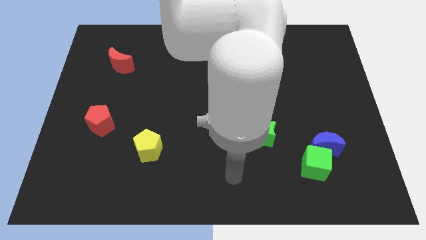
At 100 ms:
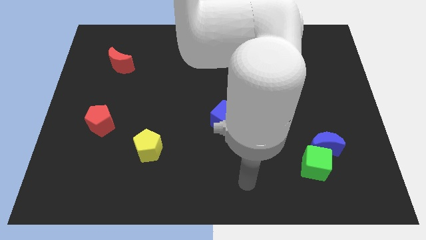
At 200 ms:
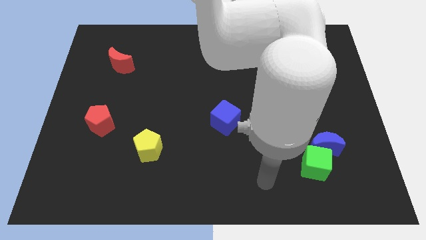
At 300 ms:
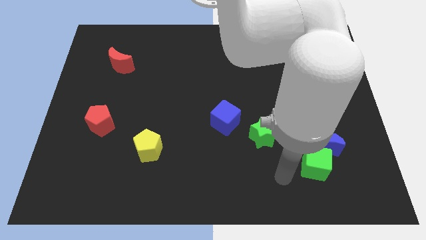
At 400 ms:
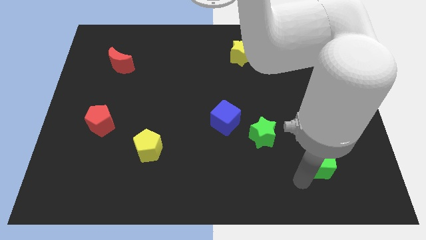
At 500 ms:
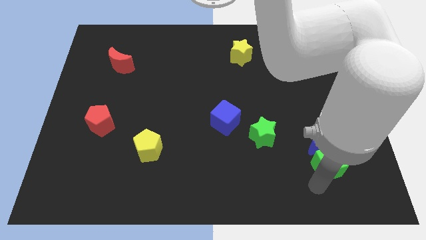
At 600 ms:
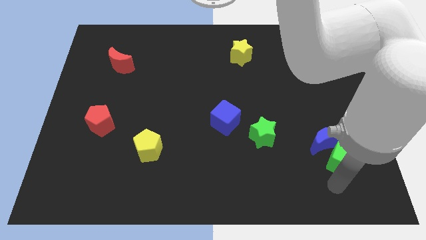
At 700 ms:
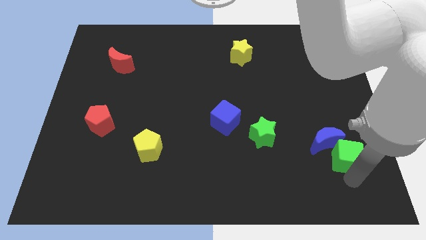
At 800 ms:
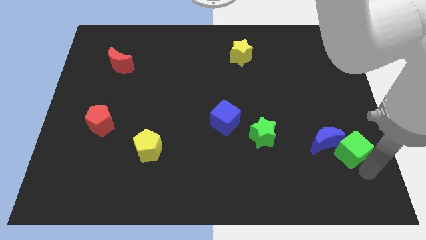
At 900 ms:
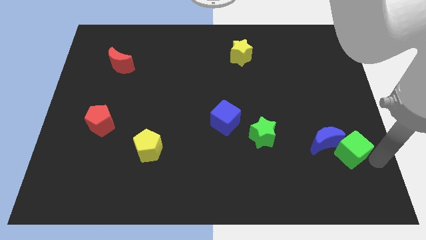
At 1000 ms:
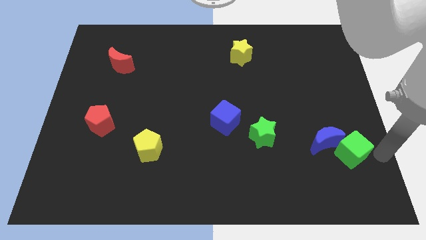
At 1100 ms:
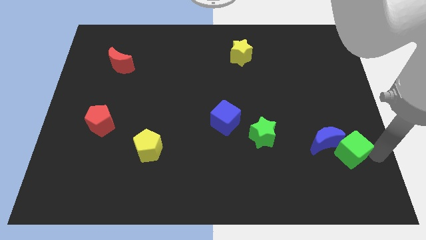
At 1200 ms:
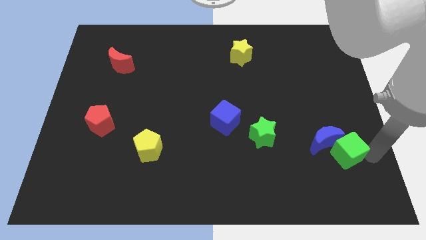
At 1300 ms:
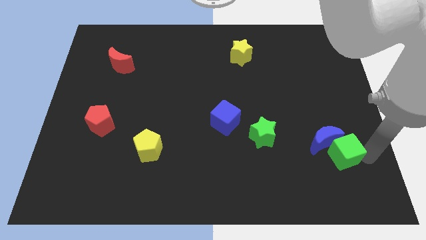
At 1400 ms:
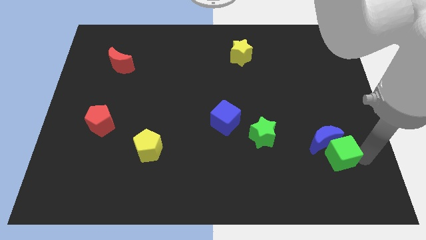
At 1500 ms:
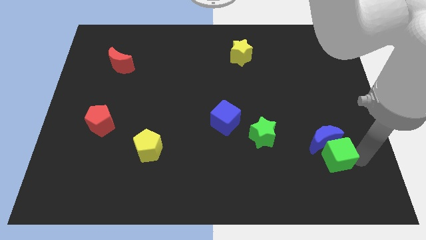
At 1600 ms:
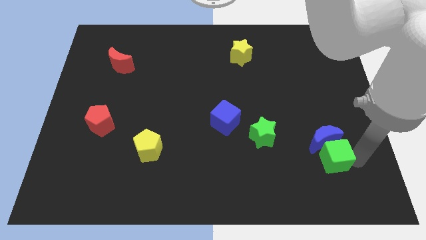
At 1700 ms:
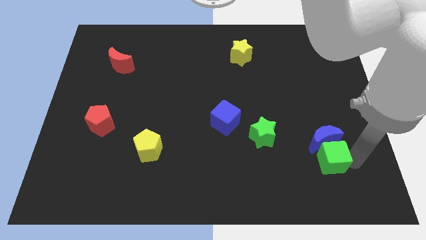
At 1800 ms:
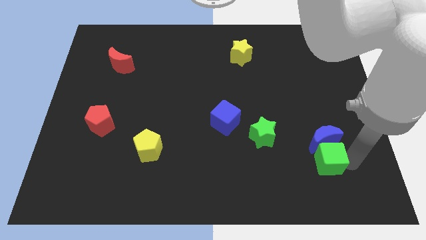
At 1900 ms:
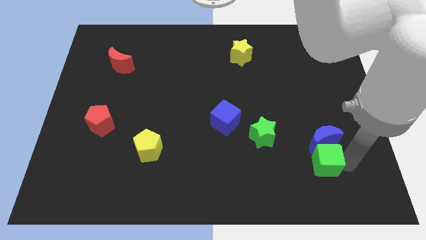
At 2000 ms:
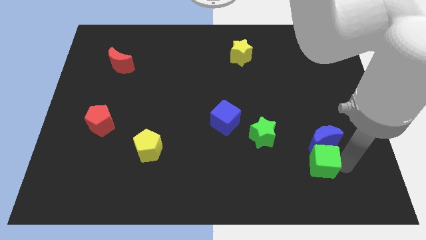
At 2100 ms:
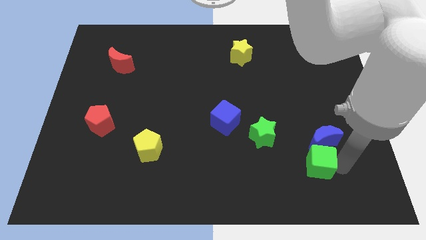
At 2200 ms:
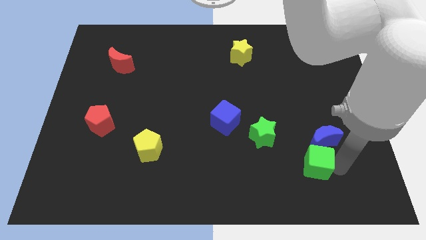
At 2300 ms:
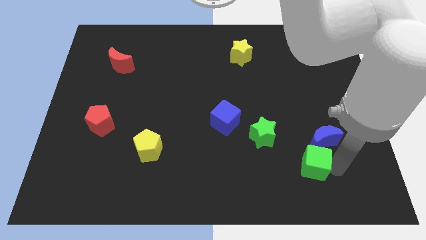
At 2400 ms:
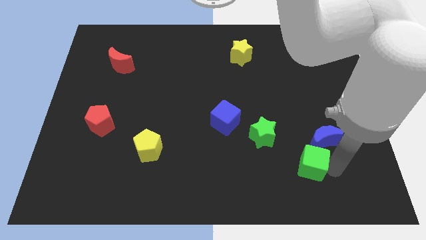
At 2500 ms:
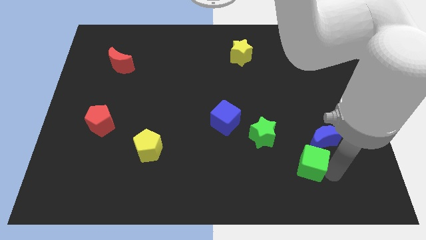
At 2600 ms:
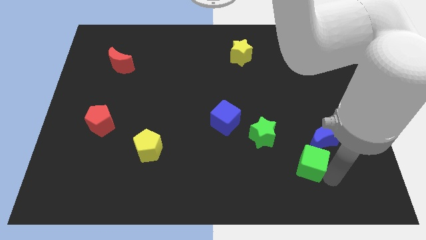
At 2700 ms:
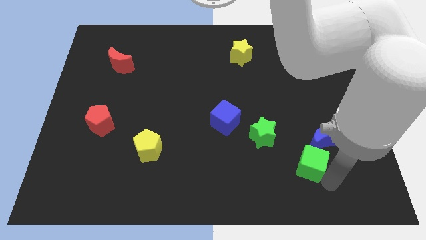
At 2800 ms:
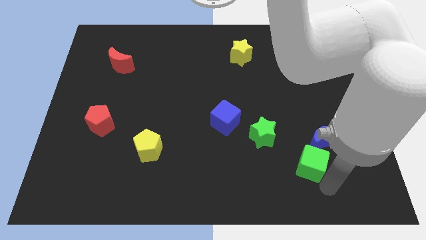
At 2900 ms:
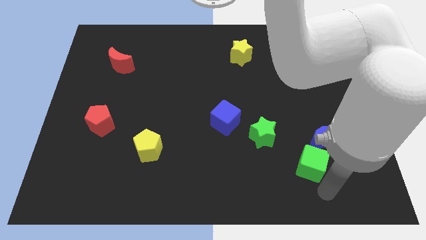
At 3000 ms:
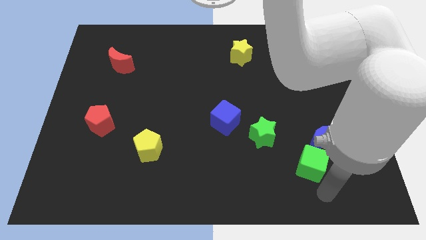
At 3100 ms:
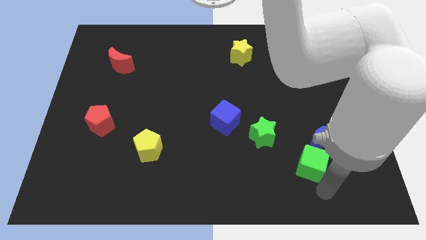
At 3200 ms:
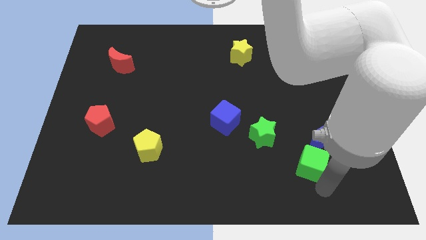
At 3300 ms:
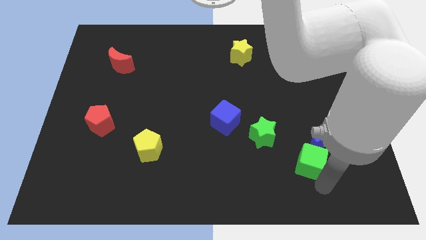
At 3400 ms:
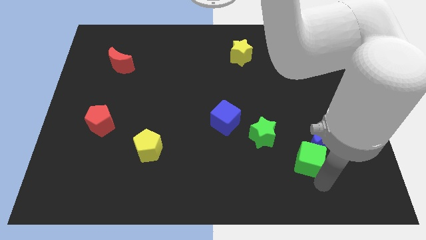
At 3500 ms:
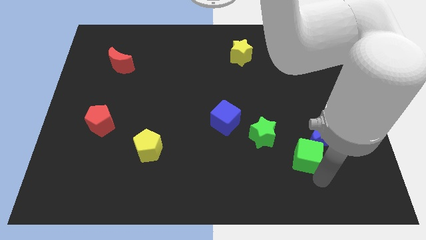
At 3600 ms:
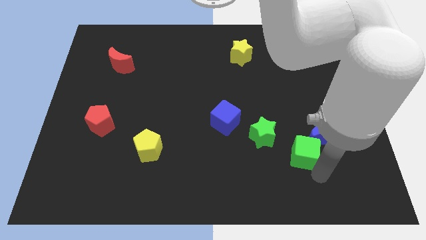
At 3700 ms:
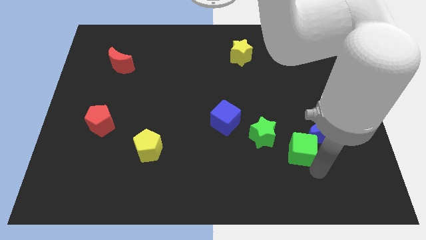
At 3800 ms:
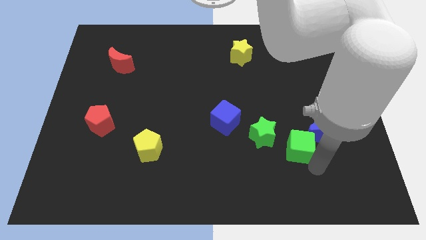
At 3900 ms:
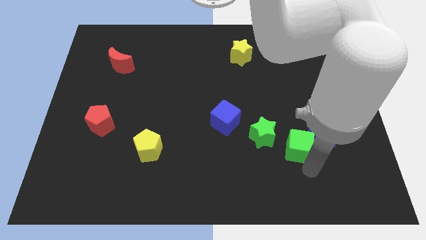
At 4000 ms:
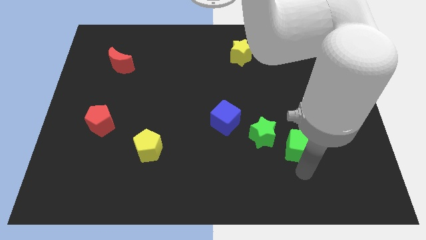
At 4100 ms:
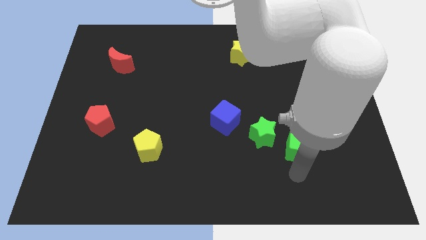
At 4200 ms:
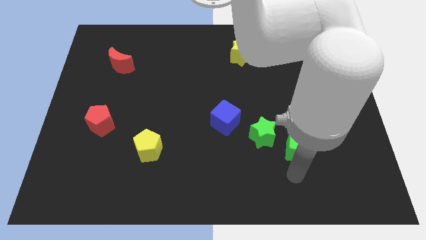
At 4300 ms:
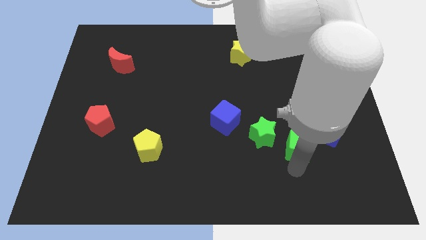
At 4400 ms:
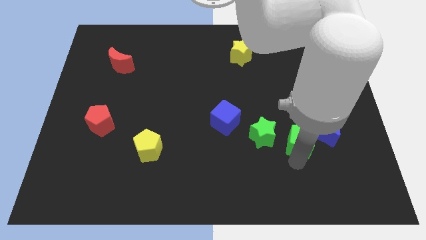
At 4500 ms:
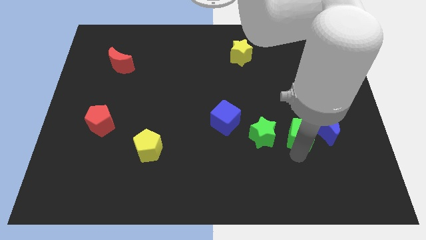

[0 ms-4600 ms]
slide the green cube up slightly

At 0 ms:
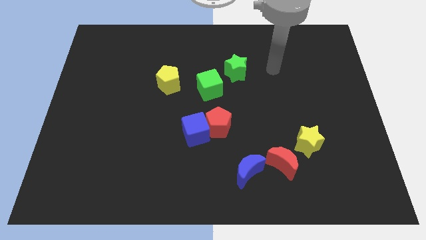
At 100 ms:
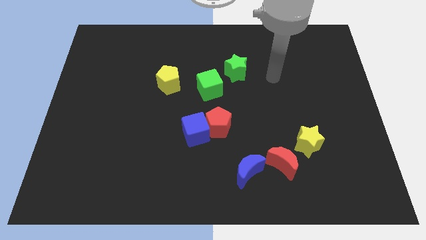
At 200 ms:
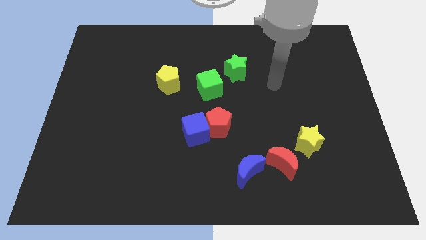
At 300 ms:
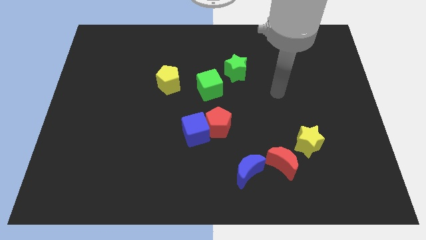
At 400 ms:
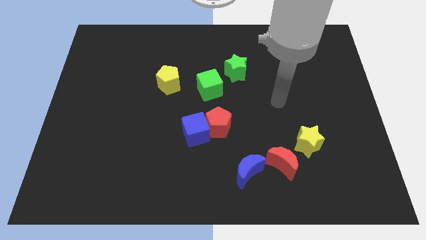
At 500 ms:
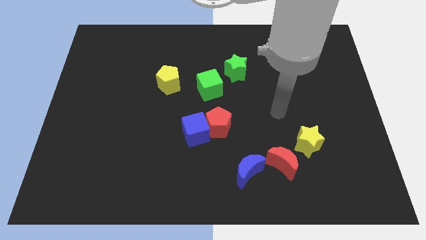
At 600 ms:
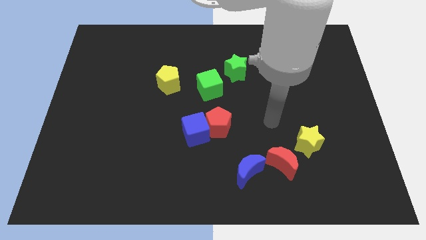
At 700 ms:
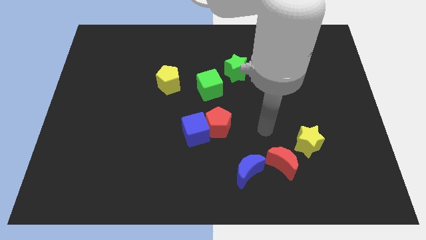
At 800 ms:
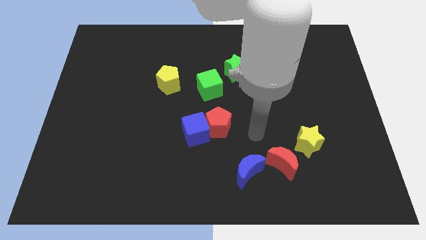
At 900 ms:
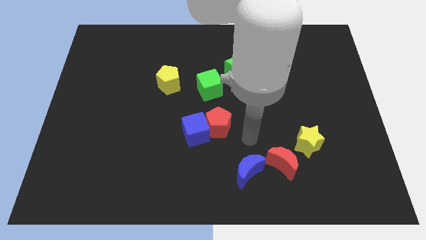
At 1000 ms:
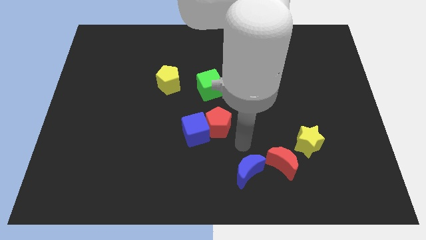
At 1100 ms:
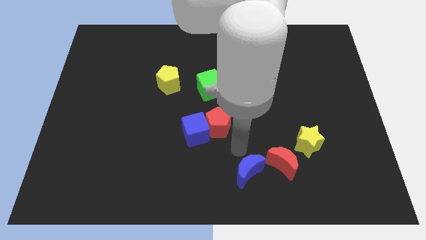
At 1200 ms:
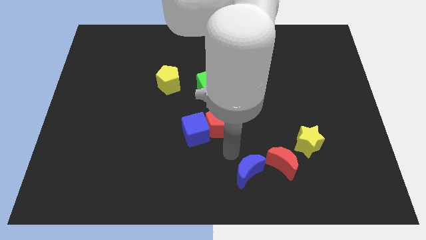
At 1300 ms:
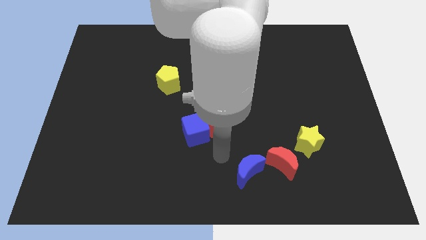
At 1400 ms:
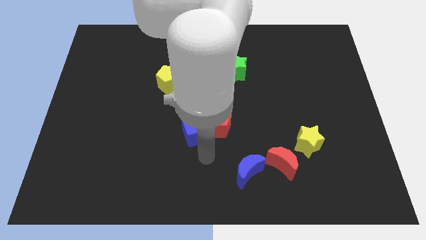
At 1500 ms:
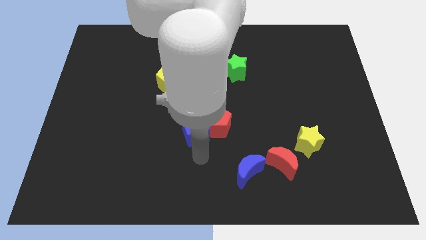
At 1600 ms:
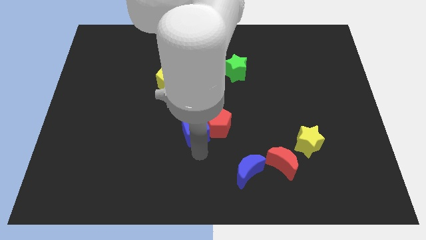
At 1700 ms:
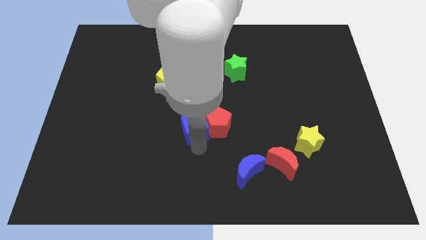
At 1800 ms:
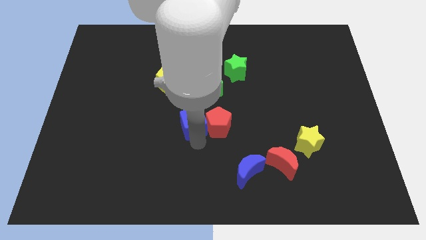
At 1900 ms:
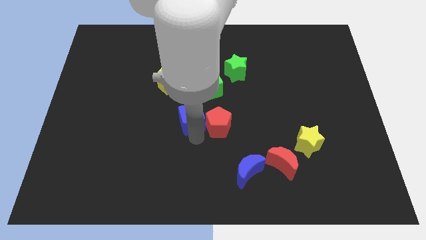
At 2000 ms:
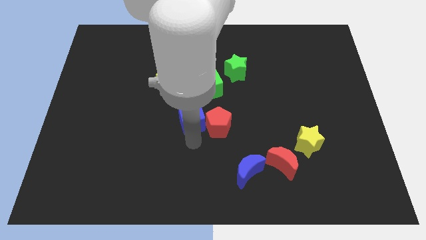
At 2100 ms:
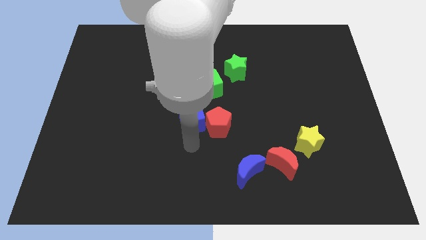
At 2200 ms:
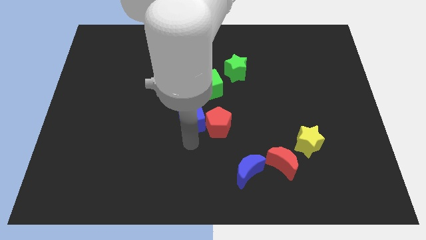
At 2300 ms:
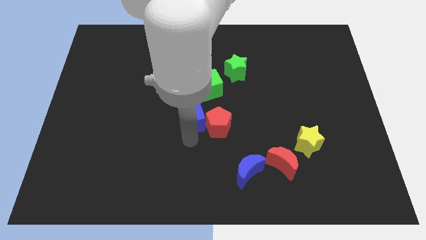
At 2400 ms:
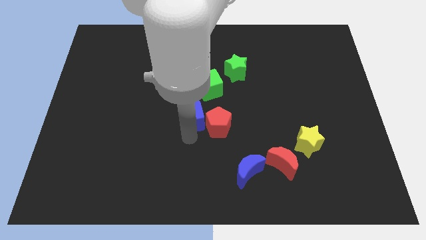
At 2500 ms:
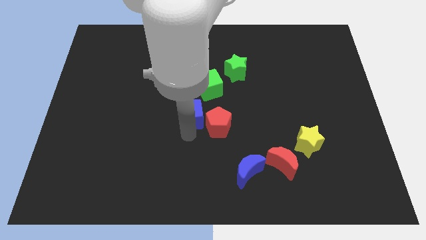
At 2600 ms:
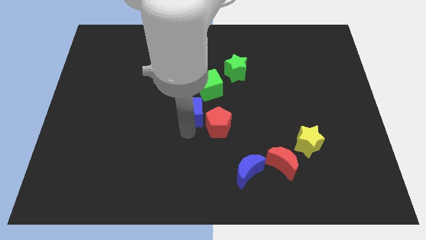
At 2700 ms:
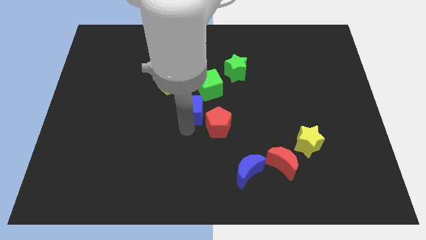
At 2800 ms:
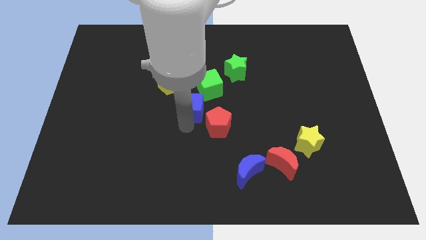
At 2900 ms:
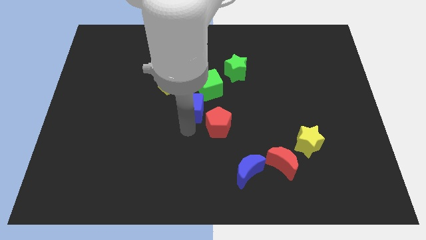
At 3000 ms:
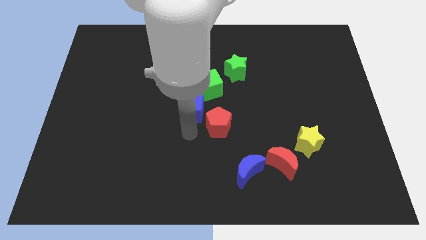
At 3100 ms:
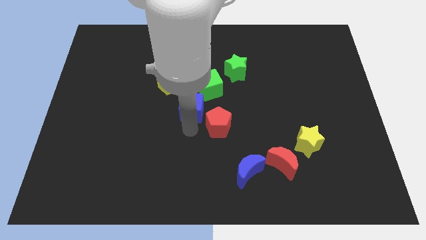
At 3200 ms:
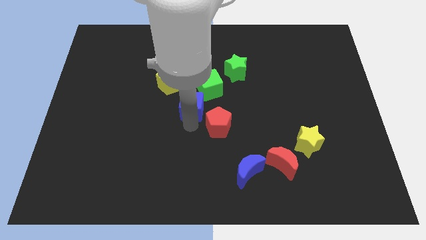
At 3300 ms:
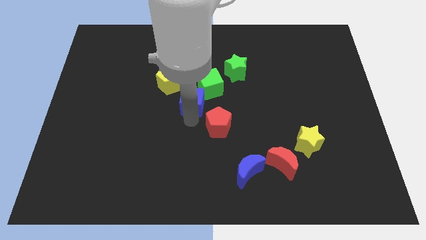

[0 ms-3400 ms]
slightly slide the blue cube upwards
